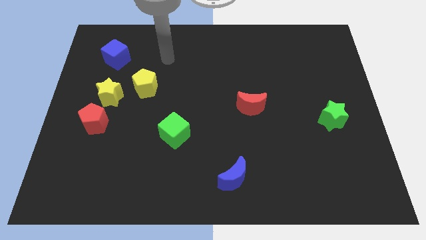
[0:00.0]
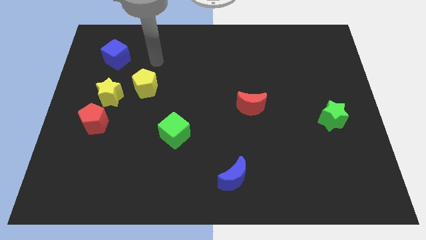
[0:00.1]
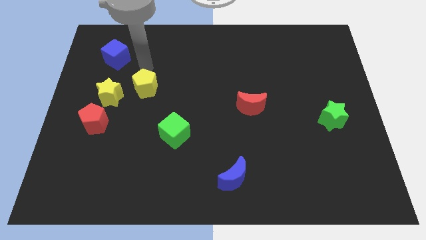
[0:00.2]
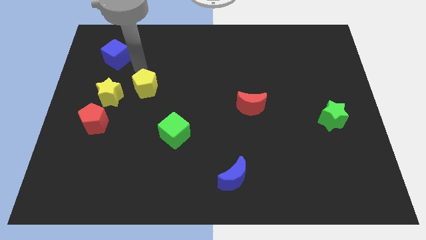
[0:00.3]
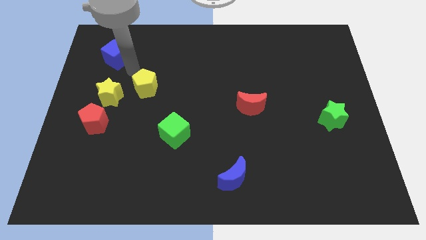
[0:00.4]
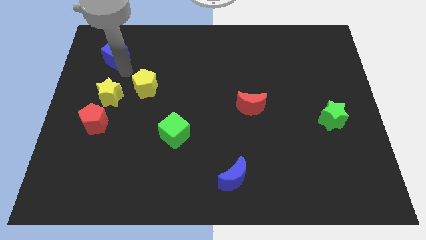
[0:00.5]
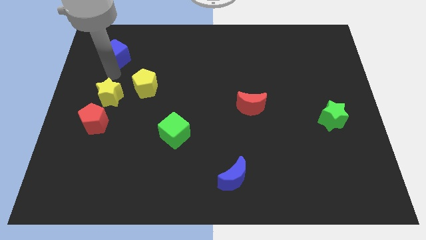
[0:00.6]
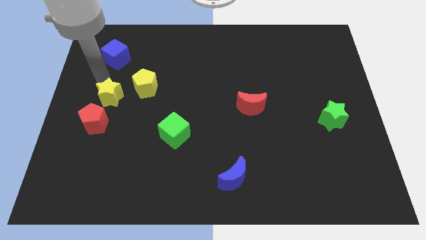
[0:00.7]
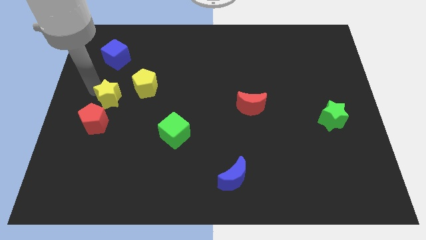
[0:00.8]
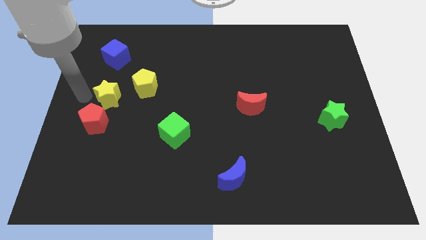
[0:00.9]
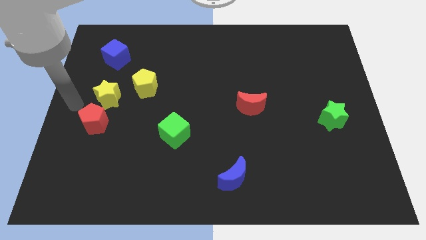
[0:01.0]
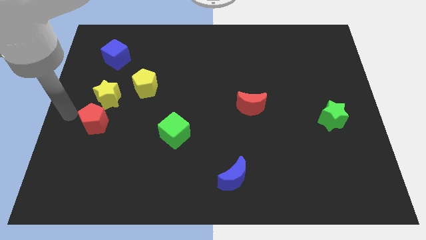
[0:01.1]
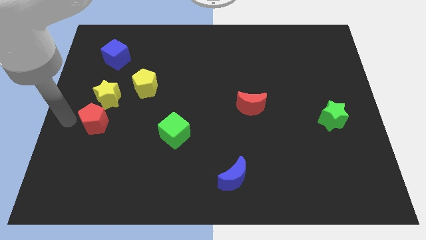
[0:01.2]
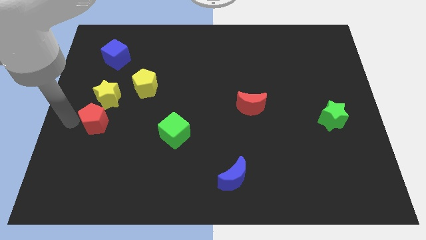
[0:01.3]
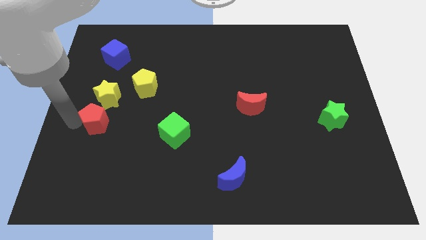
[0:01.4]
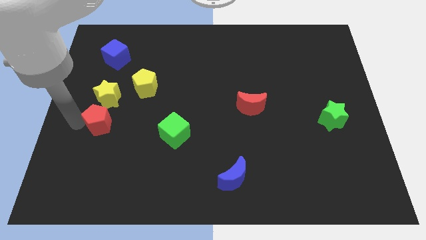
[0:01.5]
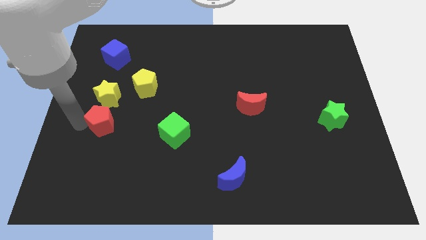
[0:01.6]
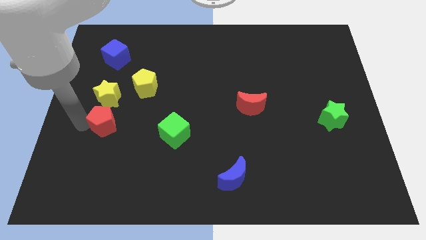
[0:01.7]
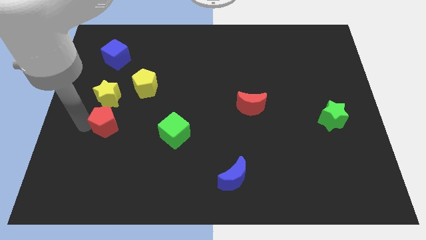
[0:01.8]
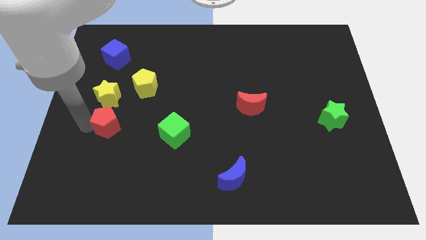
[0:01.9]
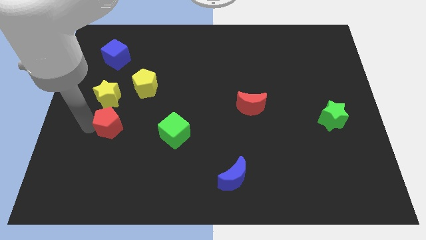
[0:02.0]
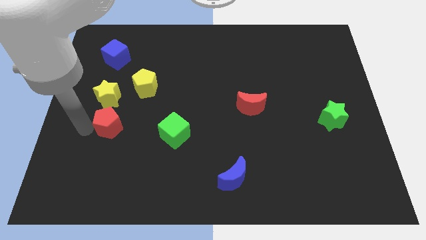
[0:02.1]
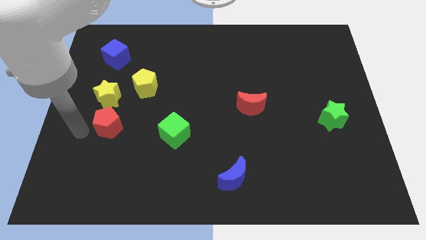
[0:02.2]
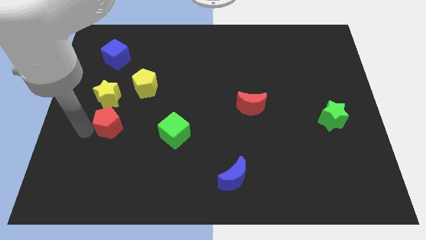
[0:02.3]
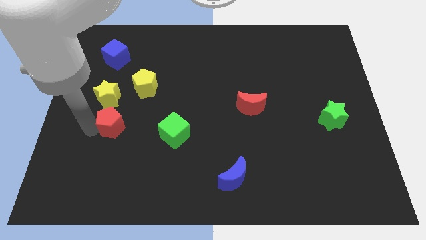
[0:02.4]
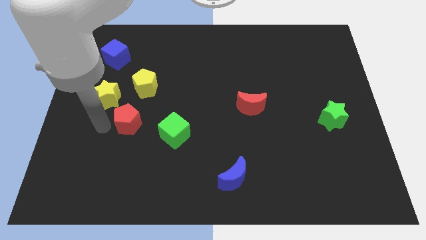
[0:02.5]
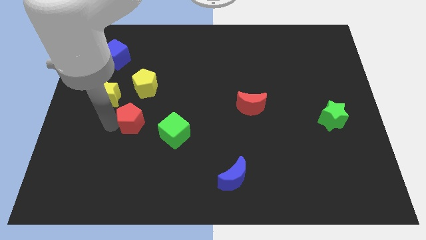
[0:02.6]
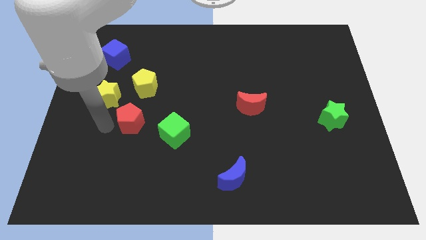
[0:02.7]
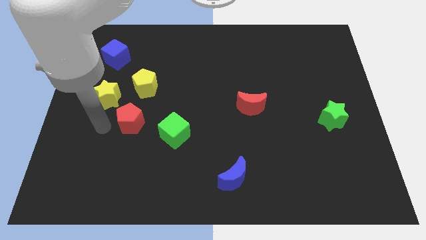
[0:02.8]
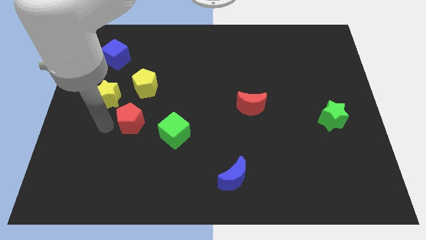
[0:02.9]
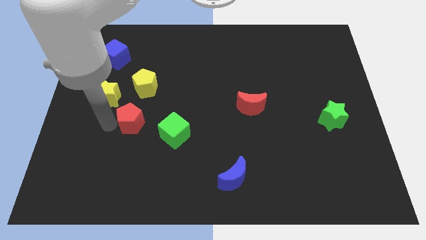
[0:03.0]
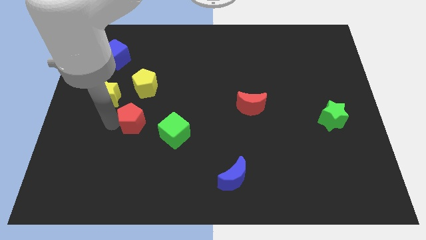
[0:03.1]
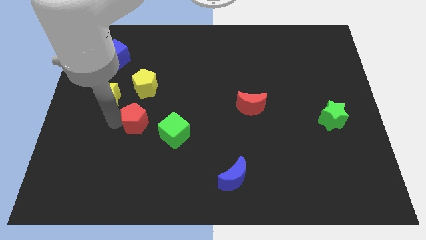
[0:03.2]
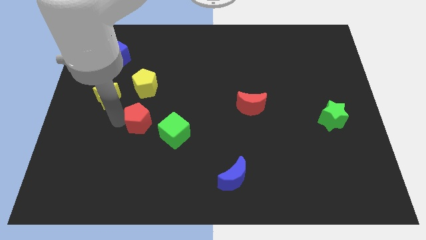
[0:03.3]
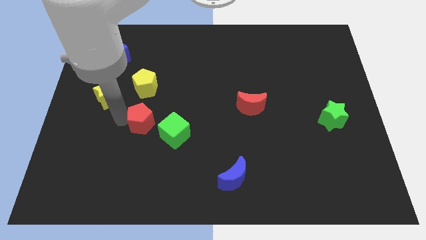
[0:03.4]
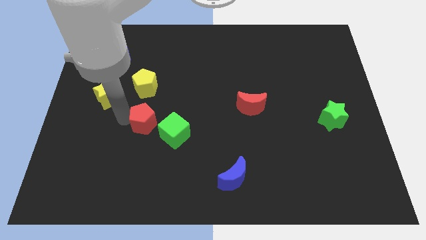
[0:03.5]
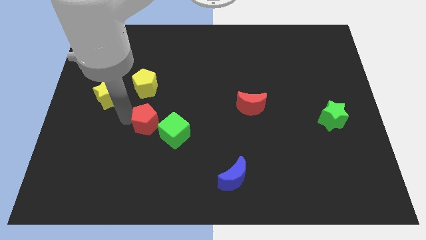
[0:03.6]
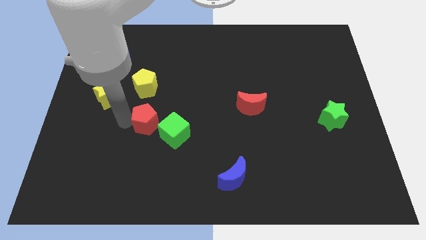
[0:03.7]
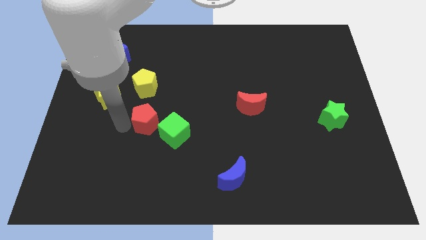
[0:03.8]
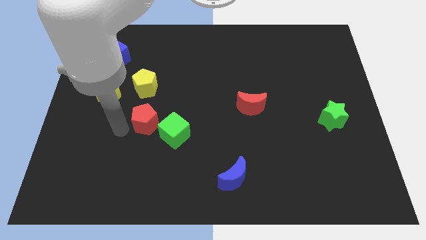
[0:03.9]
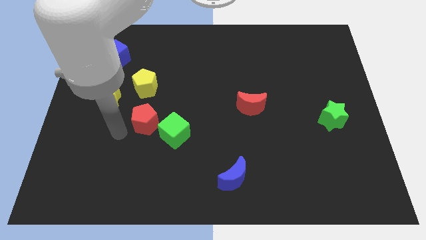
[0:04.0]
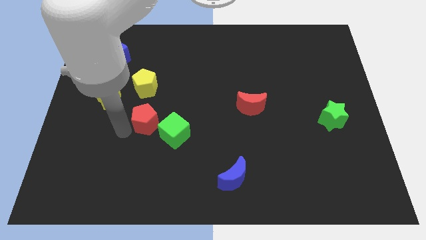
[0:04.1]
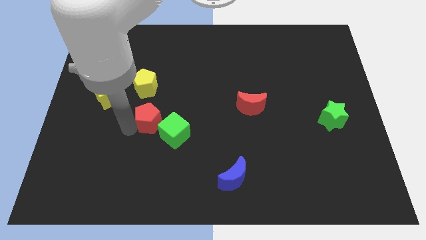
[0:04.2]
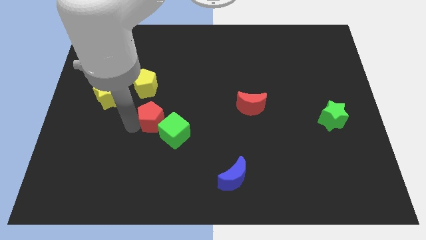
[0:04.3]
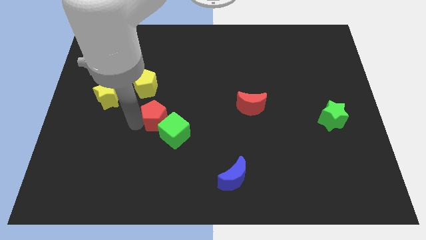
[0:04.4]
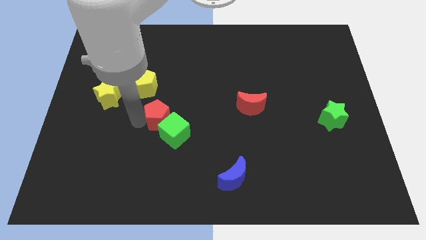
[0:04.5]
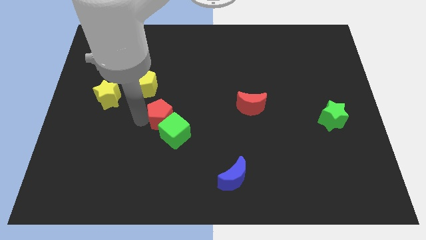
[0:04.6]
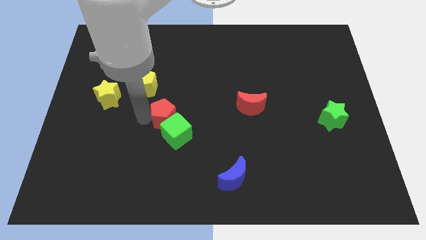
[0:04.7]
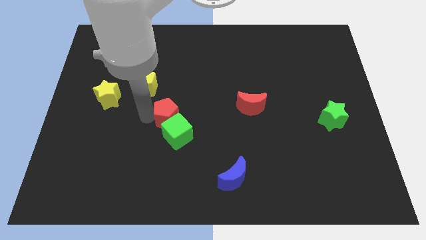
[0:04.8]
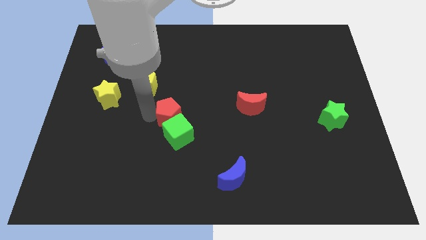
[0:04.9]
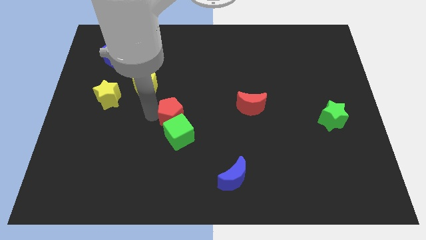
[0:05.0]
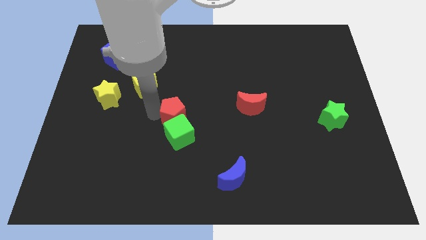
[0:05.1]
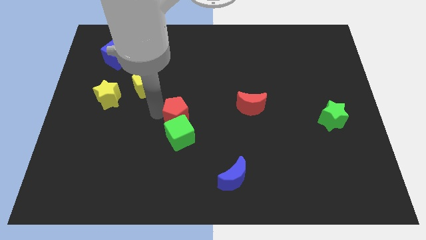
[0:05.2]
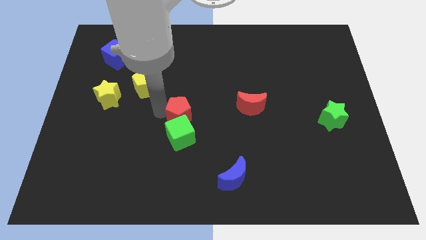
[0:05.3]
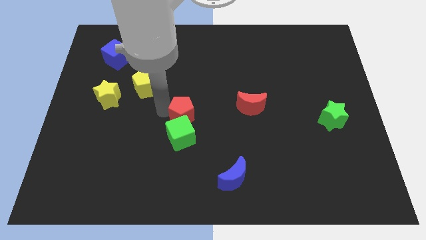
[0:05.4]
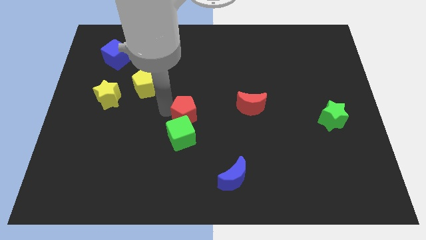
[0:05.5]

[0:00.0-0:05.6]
move the red pentagon right

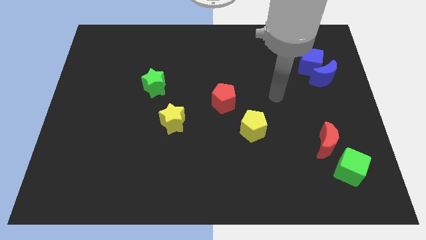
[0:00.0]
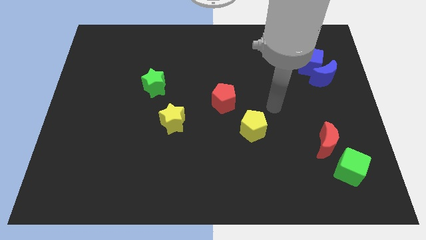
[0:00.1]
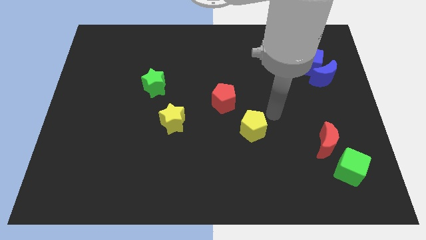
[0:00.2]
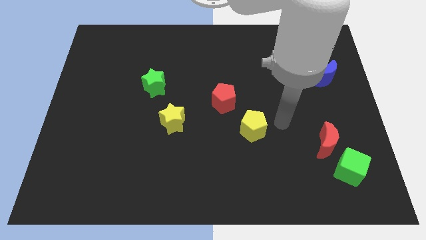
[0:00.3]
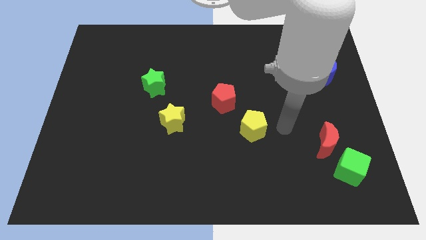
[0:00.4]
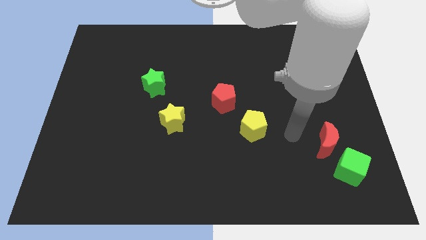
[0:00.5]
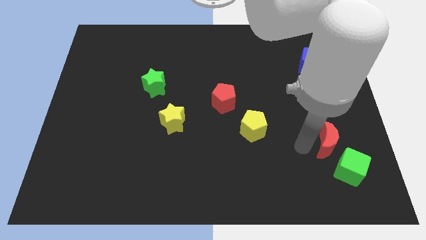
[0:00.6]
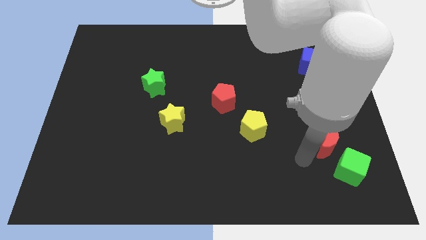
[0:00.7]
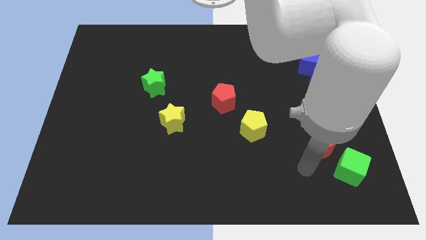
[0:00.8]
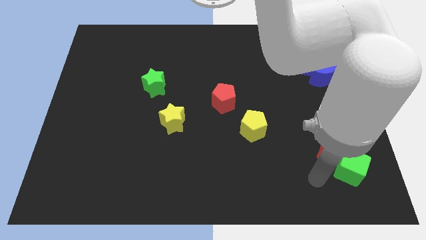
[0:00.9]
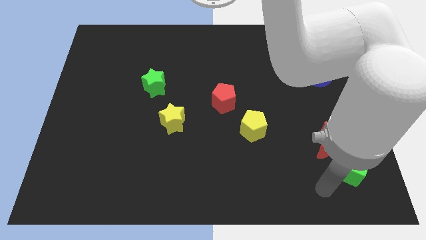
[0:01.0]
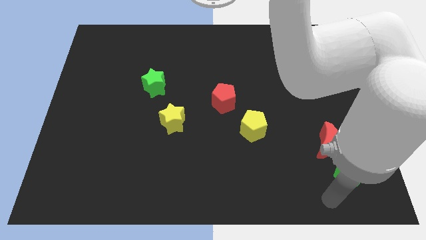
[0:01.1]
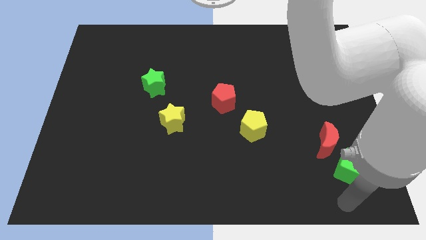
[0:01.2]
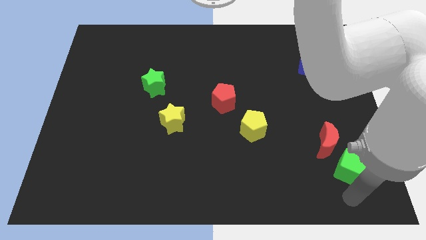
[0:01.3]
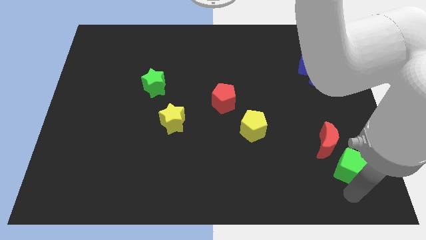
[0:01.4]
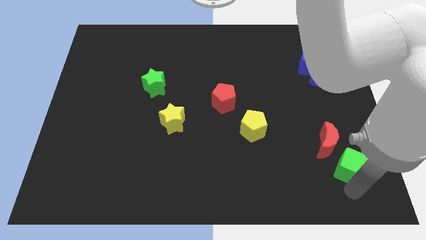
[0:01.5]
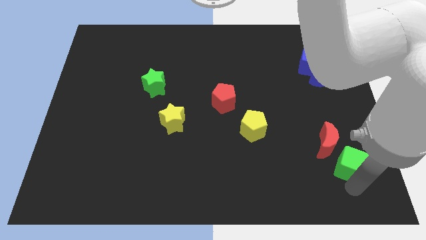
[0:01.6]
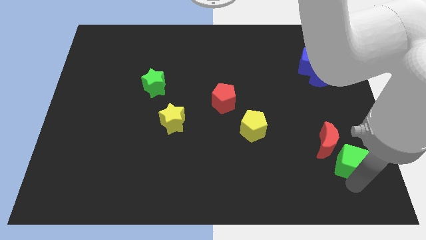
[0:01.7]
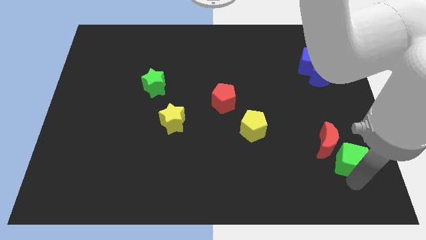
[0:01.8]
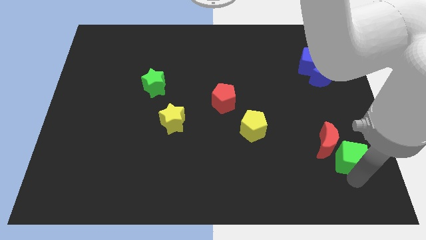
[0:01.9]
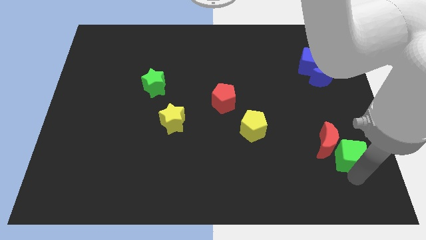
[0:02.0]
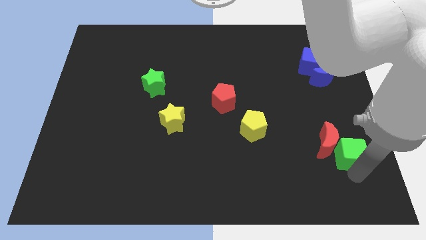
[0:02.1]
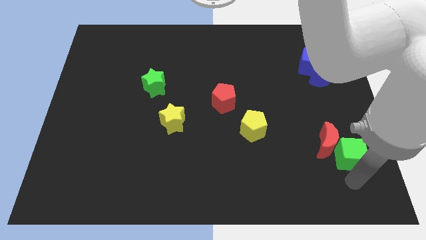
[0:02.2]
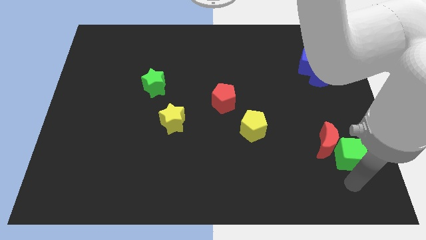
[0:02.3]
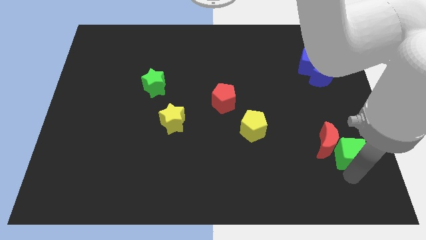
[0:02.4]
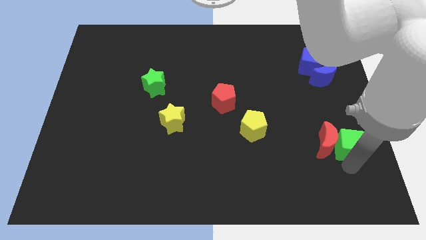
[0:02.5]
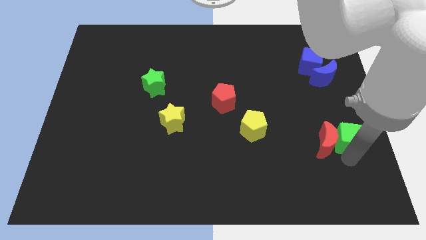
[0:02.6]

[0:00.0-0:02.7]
move the green cube up a bit

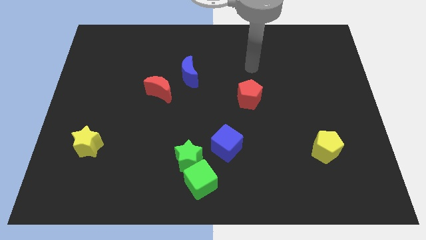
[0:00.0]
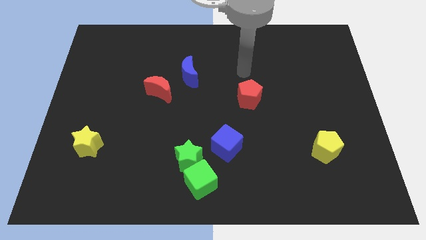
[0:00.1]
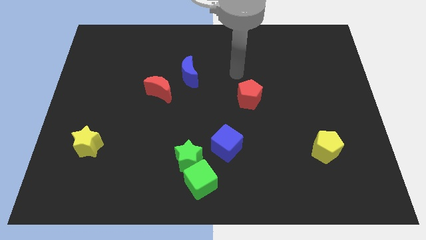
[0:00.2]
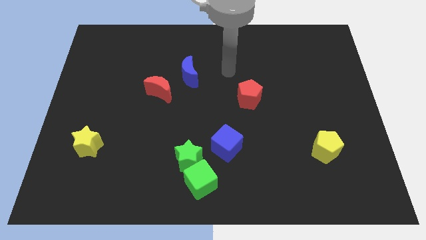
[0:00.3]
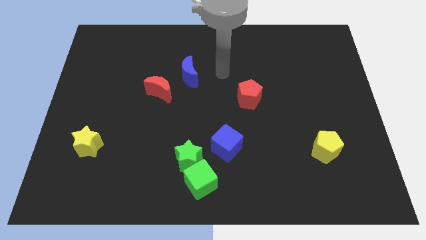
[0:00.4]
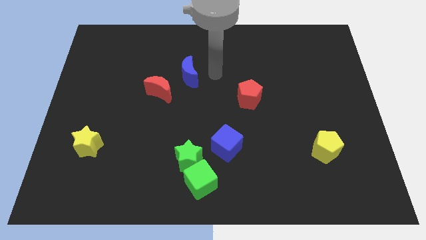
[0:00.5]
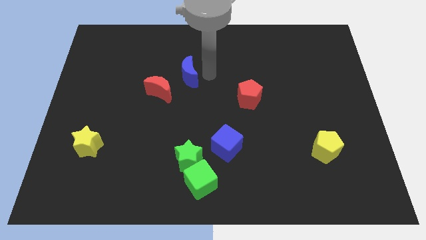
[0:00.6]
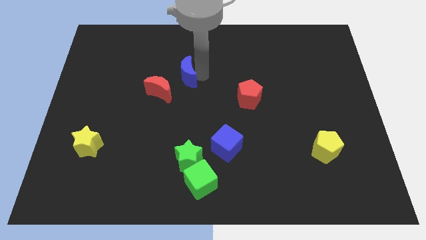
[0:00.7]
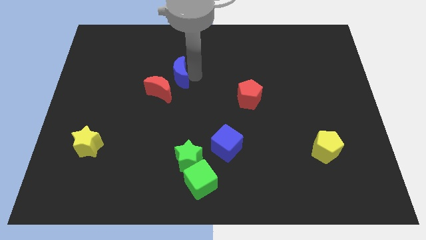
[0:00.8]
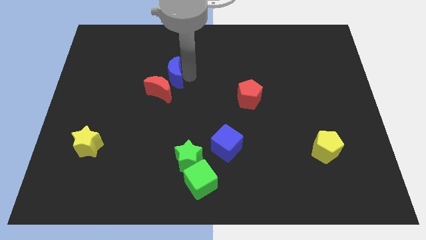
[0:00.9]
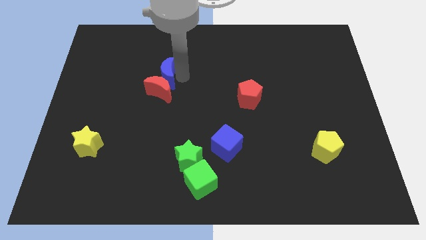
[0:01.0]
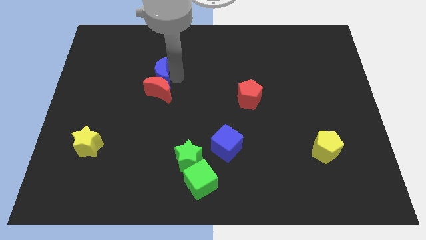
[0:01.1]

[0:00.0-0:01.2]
push the blue moon to the left a little bit
